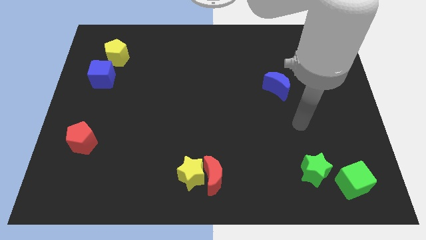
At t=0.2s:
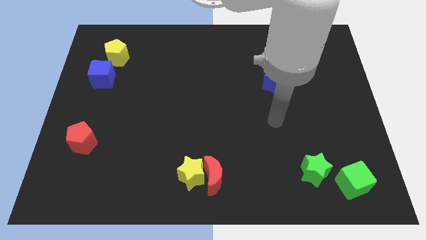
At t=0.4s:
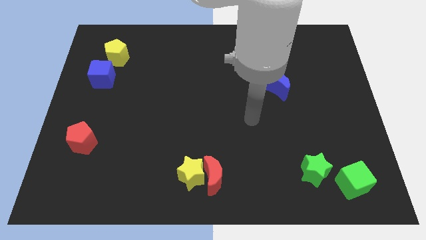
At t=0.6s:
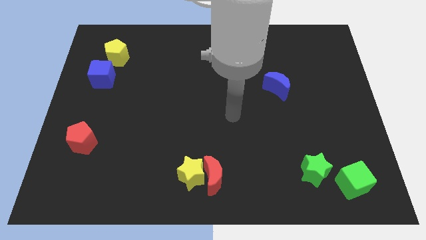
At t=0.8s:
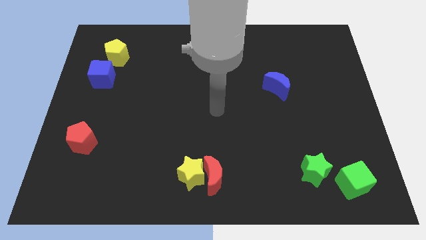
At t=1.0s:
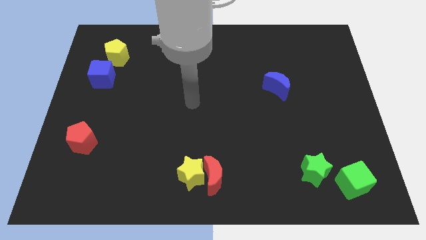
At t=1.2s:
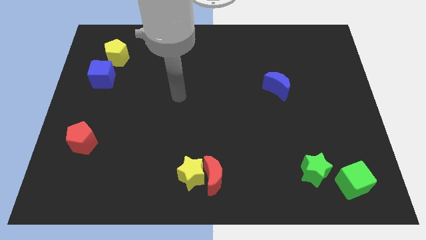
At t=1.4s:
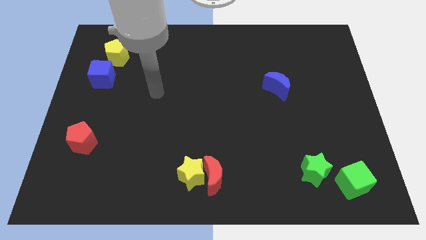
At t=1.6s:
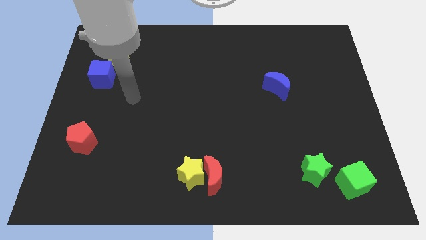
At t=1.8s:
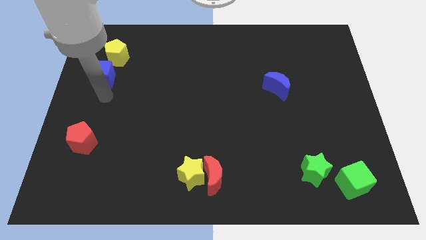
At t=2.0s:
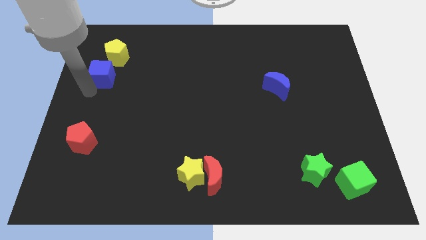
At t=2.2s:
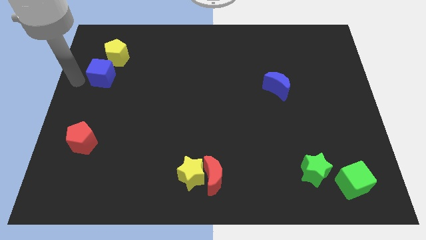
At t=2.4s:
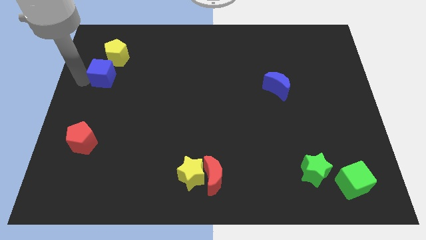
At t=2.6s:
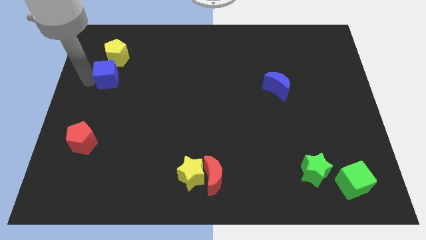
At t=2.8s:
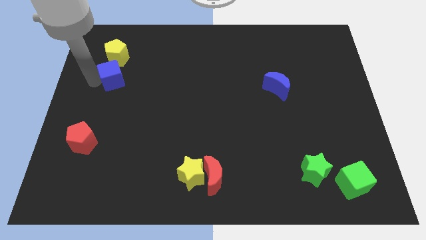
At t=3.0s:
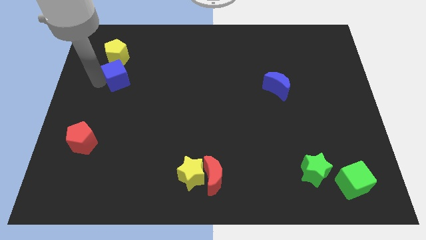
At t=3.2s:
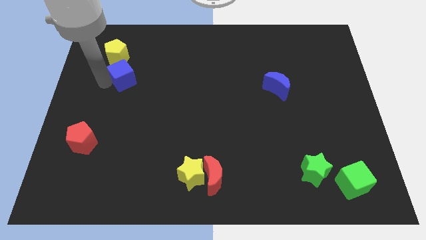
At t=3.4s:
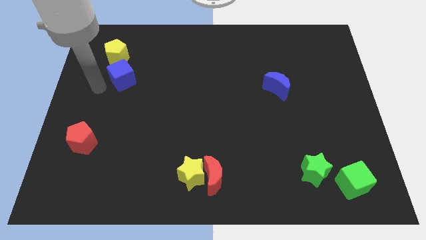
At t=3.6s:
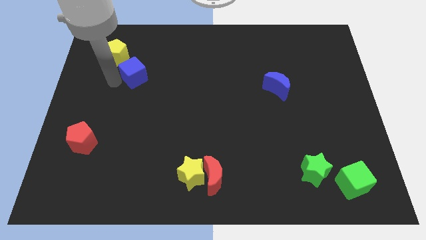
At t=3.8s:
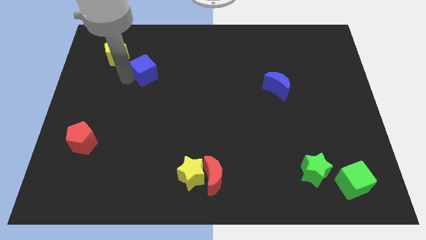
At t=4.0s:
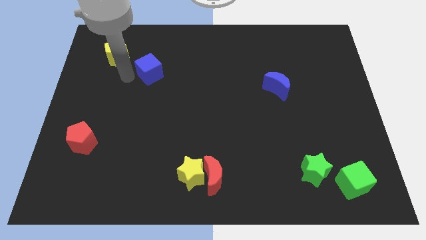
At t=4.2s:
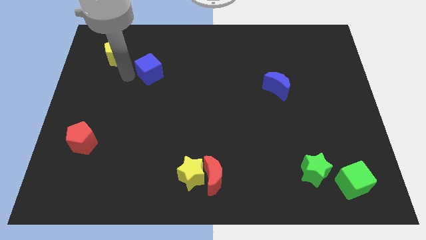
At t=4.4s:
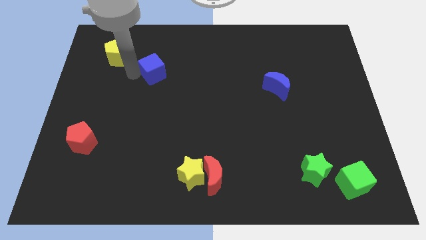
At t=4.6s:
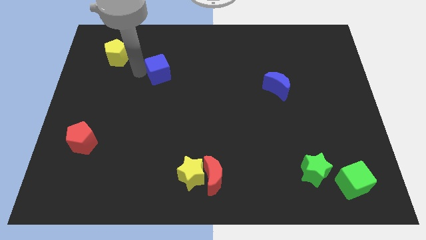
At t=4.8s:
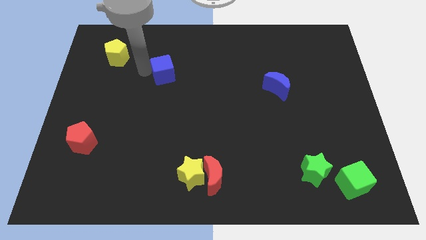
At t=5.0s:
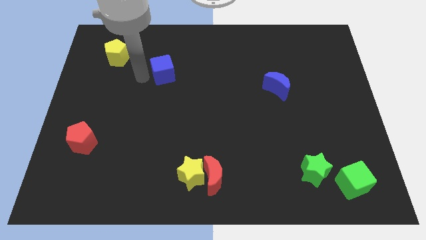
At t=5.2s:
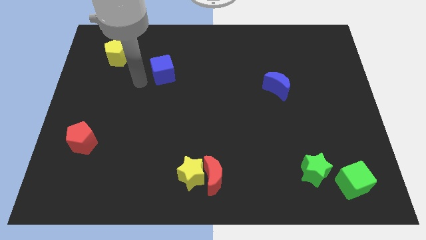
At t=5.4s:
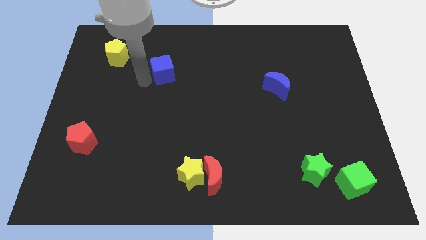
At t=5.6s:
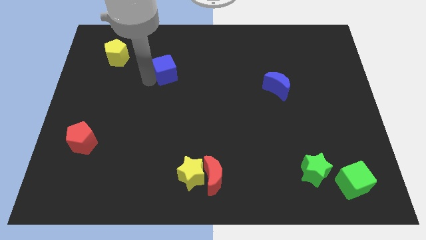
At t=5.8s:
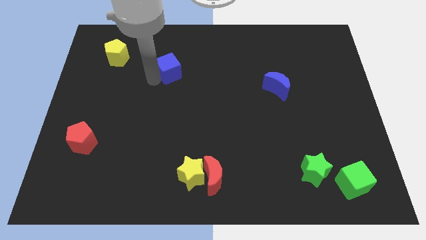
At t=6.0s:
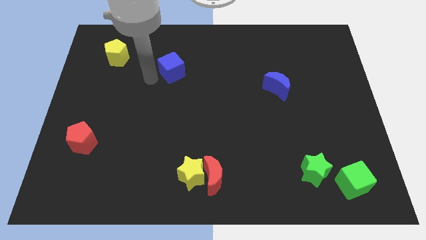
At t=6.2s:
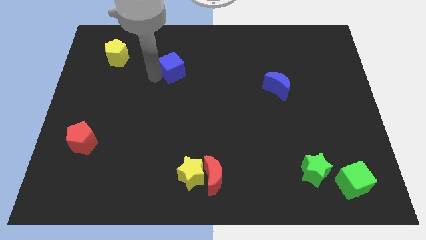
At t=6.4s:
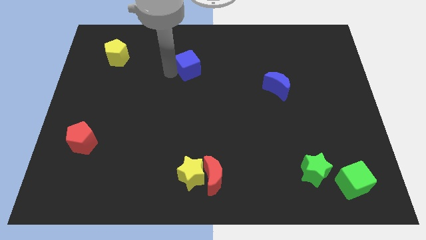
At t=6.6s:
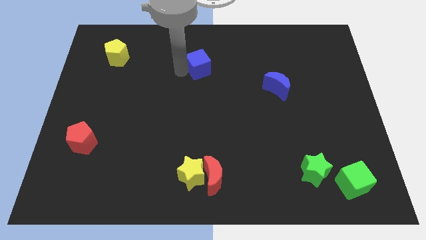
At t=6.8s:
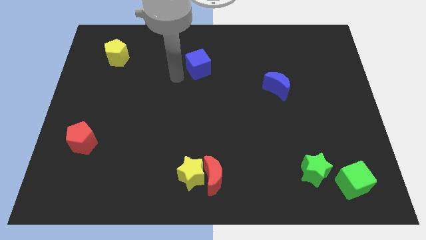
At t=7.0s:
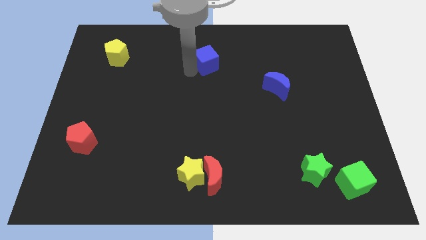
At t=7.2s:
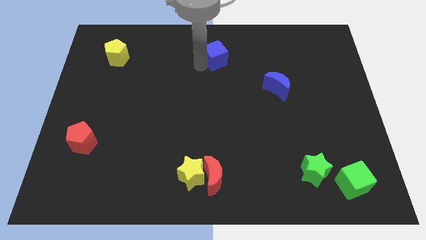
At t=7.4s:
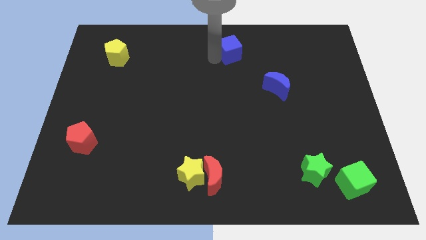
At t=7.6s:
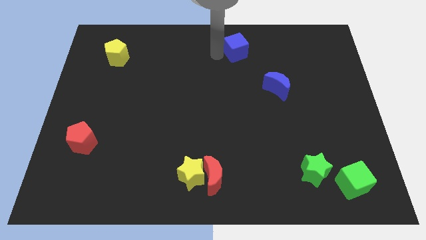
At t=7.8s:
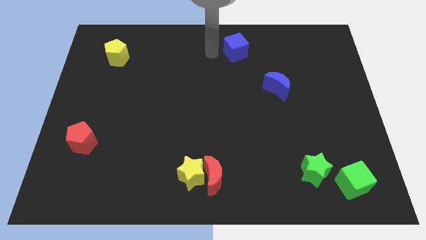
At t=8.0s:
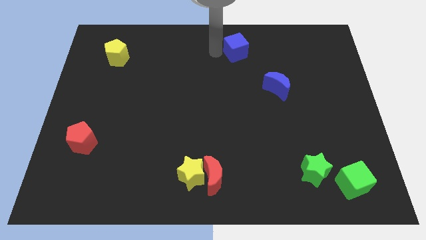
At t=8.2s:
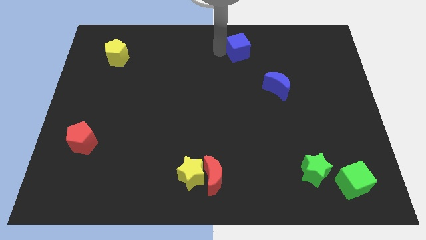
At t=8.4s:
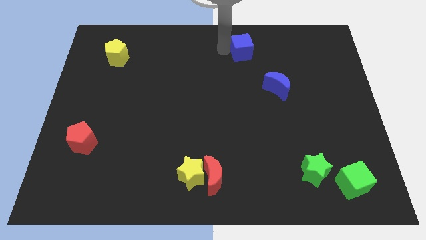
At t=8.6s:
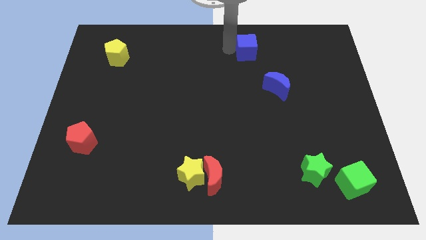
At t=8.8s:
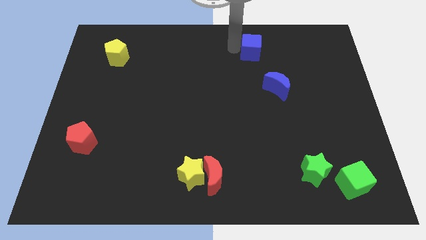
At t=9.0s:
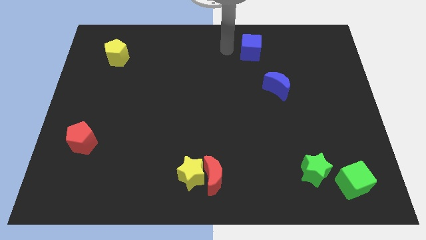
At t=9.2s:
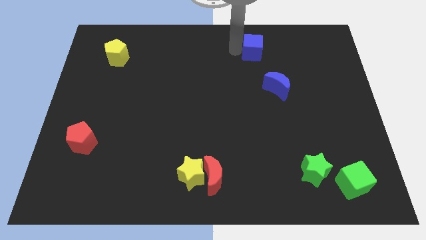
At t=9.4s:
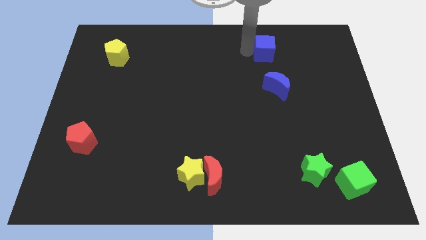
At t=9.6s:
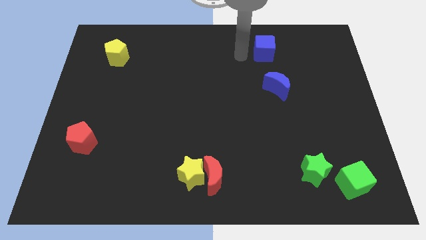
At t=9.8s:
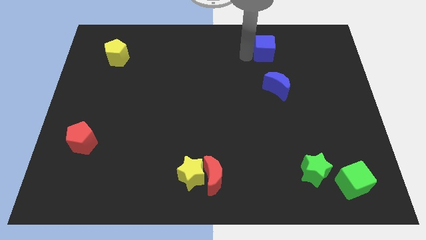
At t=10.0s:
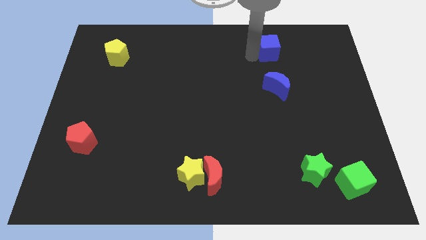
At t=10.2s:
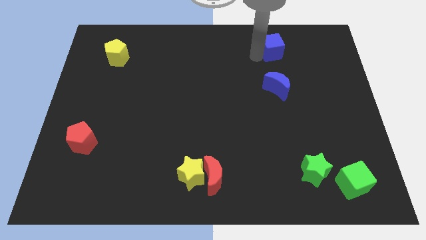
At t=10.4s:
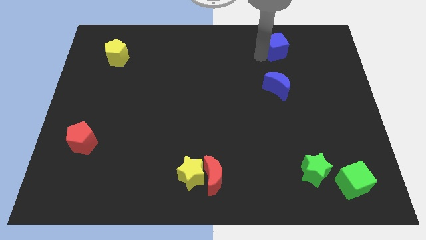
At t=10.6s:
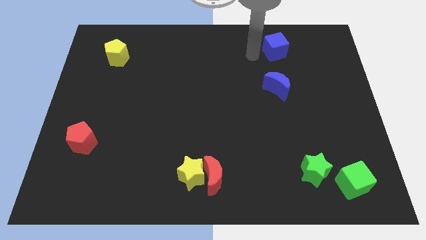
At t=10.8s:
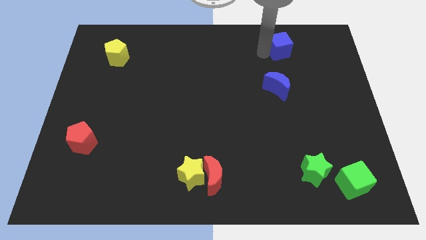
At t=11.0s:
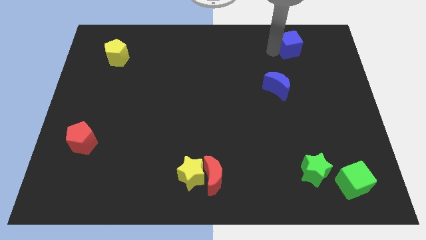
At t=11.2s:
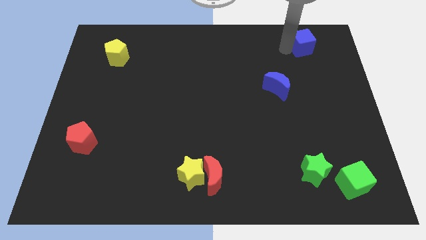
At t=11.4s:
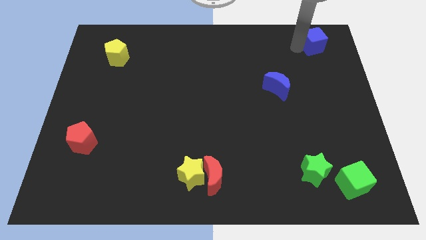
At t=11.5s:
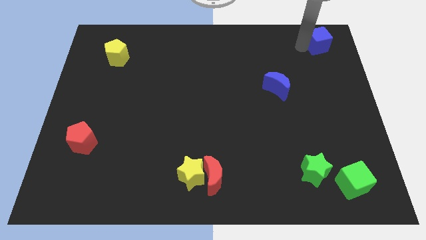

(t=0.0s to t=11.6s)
slide the blue cube to the top right

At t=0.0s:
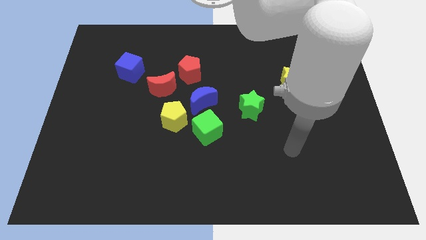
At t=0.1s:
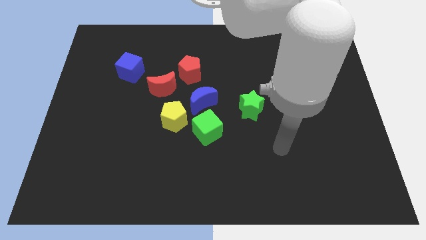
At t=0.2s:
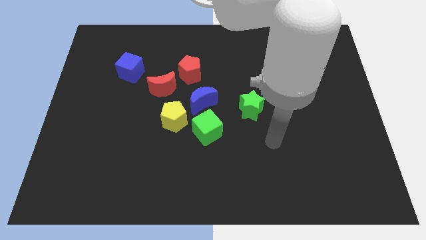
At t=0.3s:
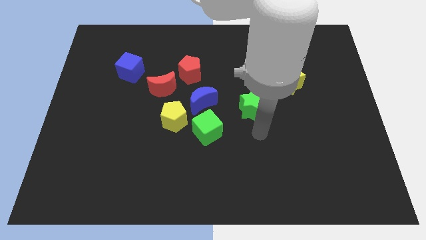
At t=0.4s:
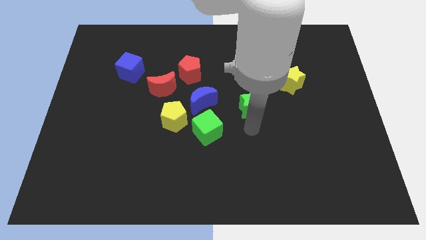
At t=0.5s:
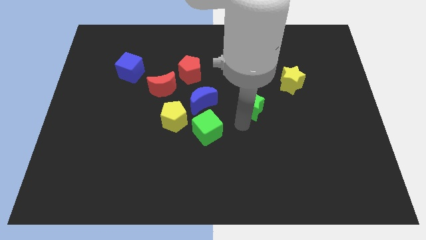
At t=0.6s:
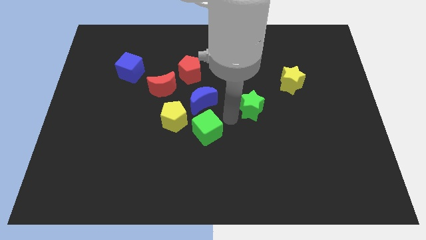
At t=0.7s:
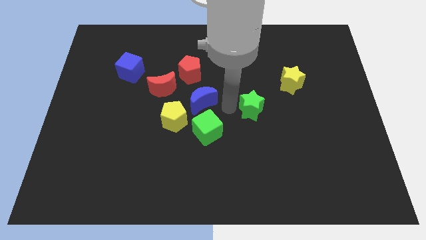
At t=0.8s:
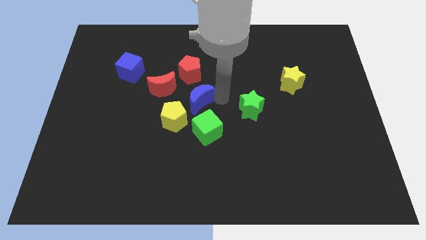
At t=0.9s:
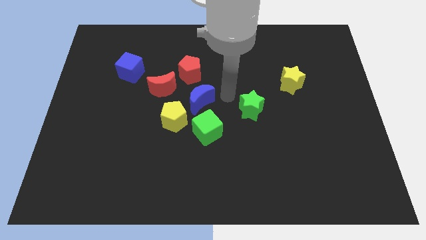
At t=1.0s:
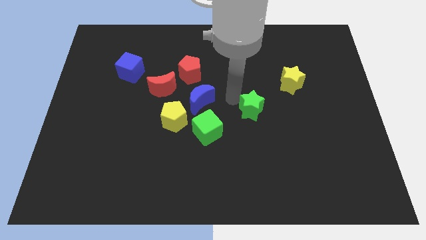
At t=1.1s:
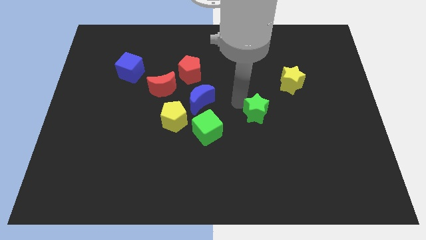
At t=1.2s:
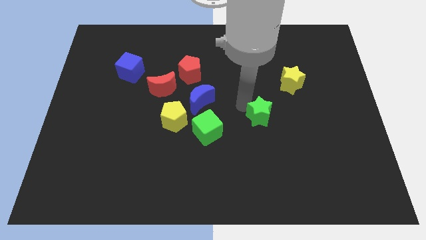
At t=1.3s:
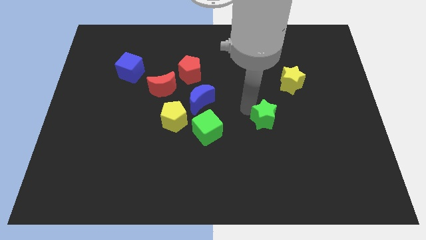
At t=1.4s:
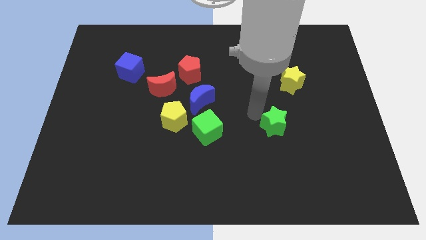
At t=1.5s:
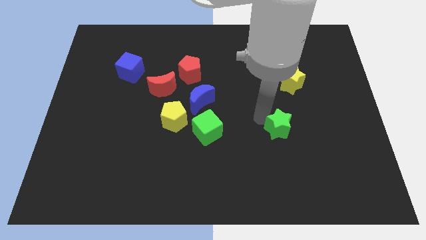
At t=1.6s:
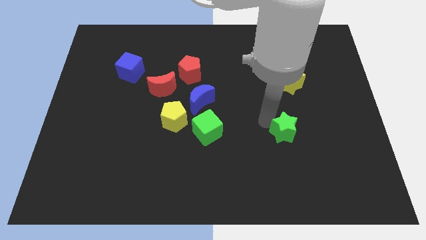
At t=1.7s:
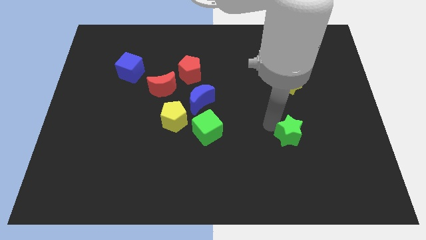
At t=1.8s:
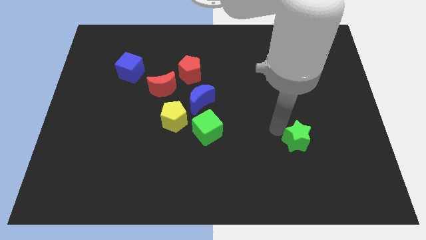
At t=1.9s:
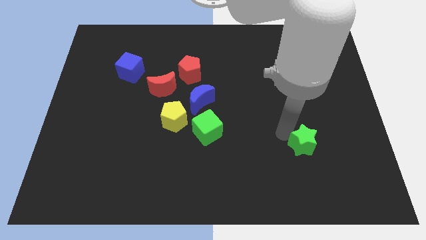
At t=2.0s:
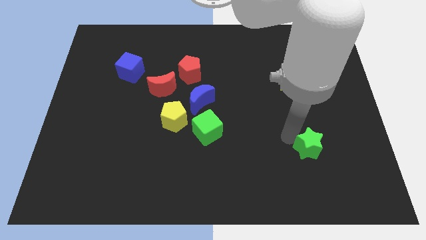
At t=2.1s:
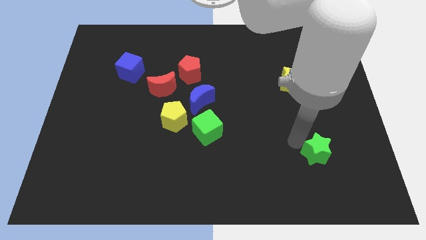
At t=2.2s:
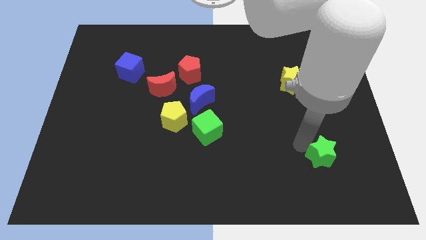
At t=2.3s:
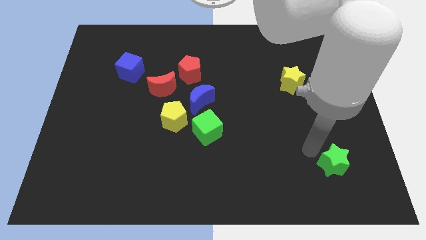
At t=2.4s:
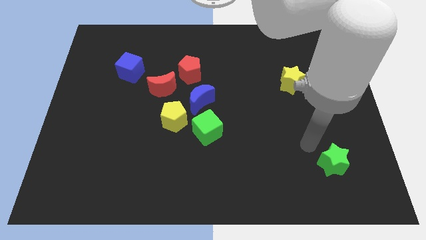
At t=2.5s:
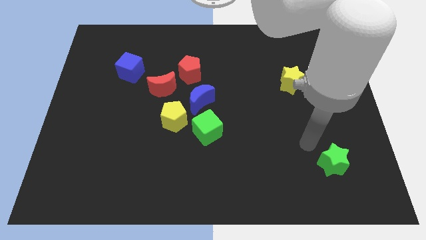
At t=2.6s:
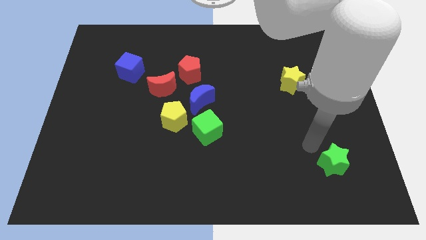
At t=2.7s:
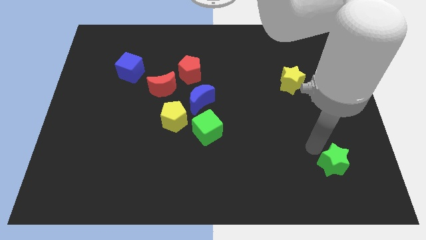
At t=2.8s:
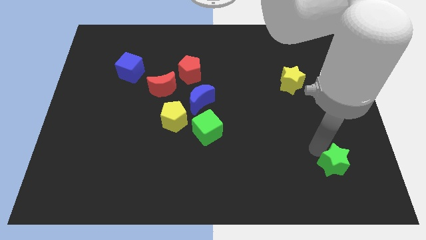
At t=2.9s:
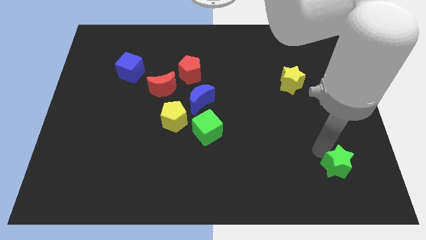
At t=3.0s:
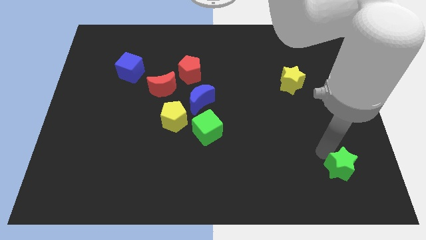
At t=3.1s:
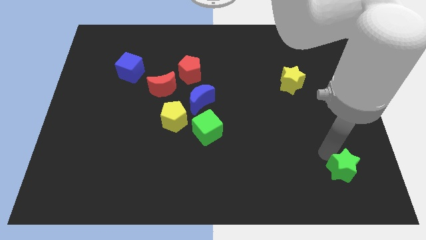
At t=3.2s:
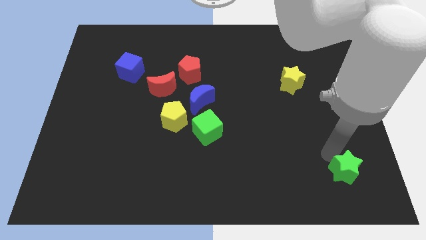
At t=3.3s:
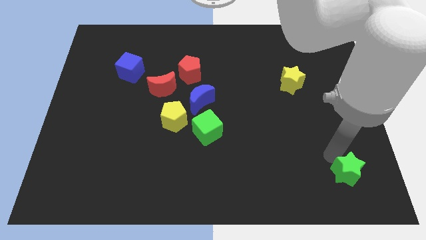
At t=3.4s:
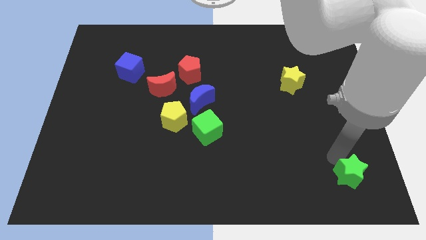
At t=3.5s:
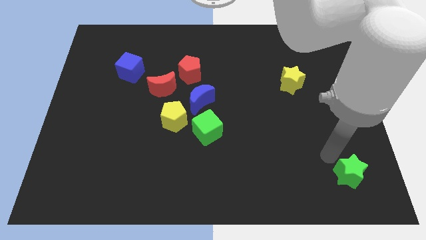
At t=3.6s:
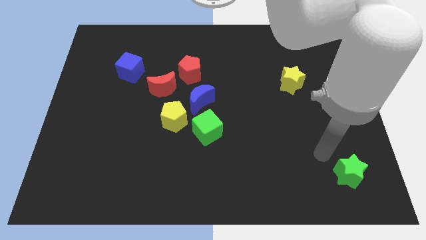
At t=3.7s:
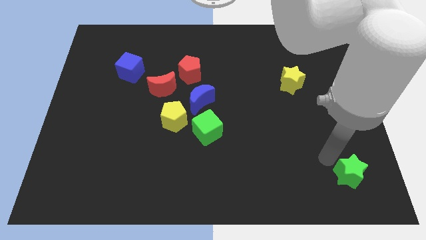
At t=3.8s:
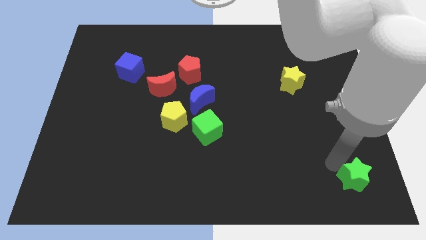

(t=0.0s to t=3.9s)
move the green star to the bottom right
